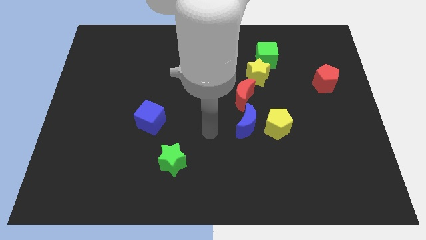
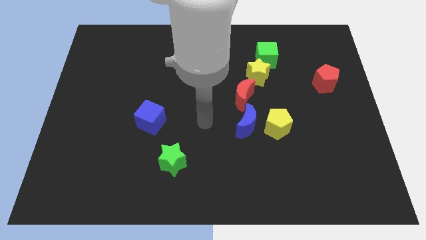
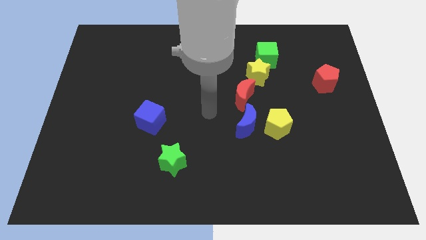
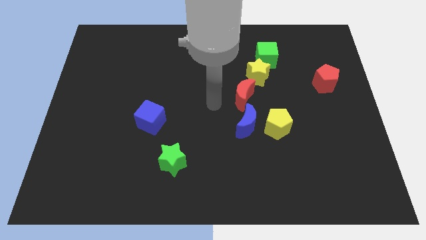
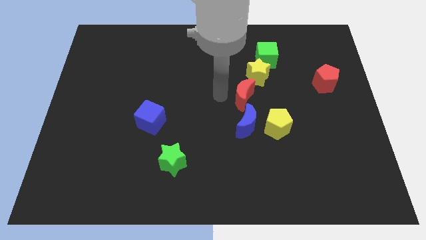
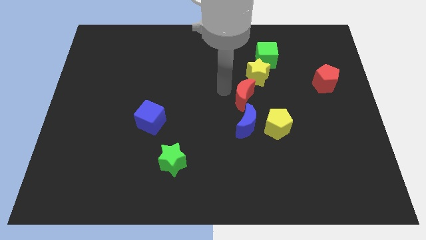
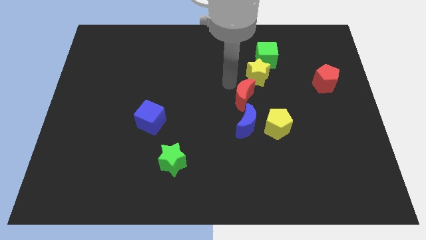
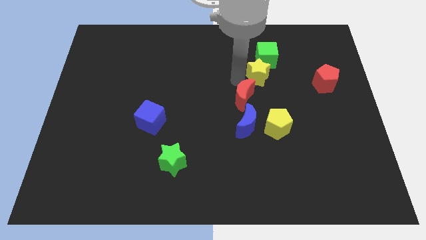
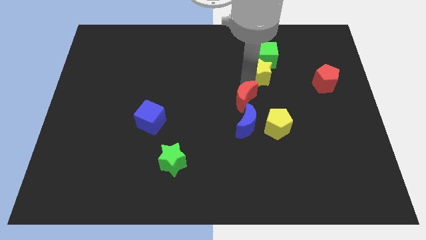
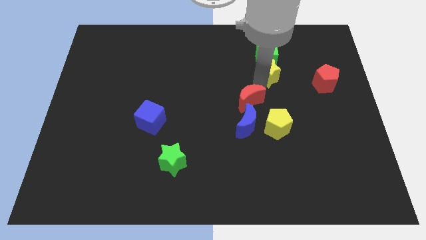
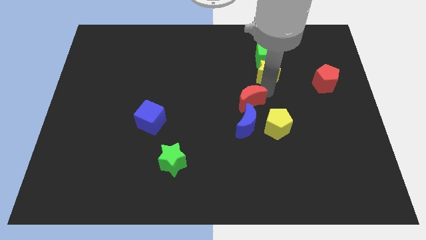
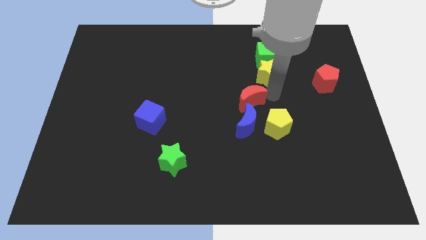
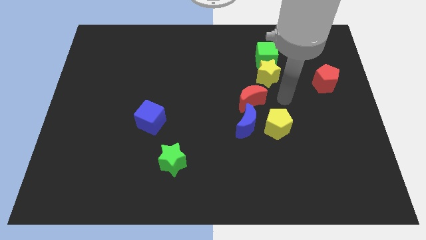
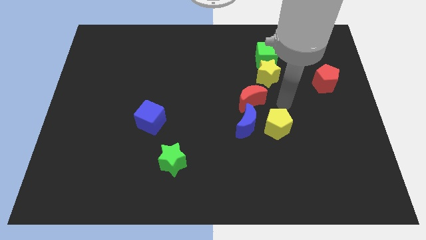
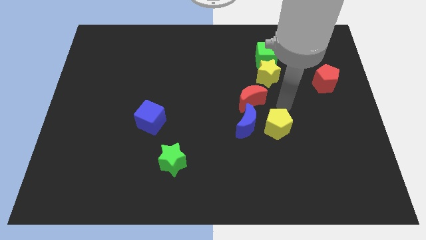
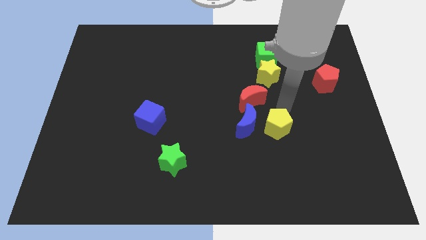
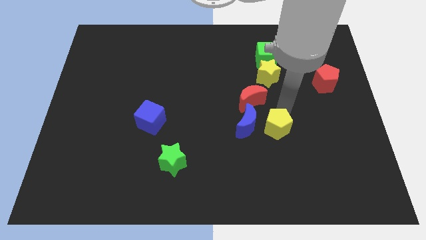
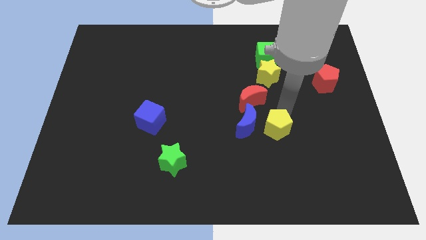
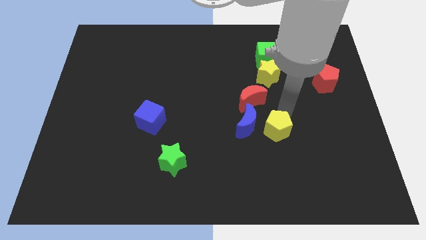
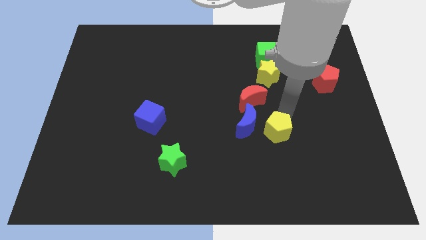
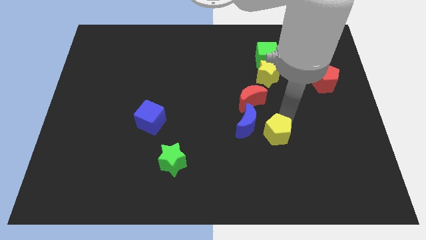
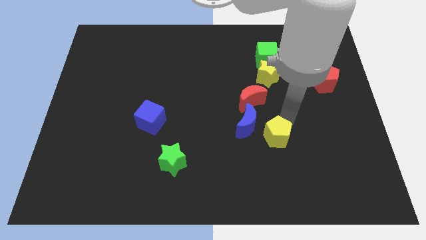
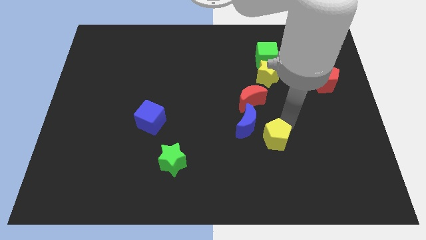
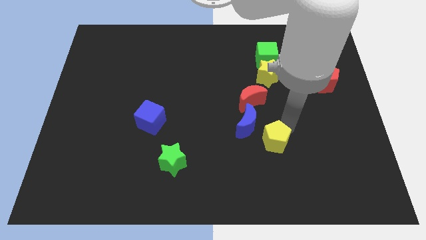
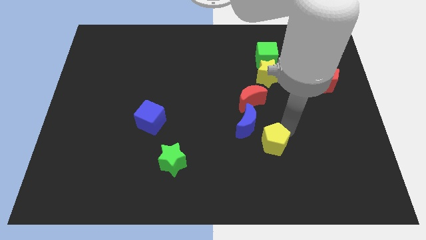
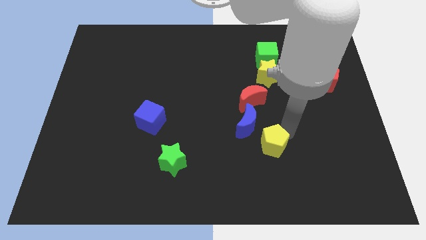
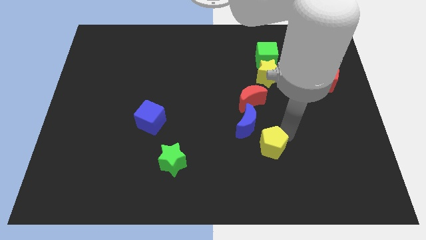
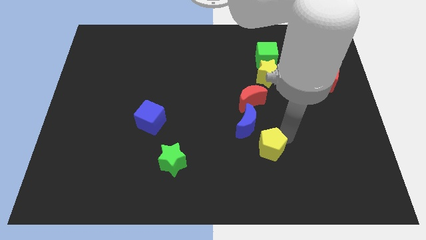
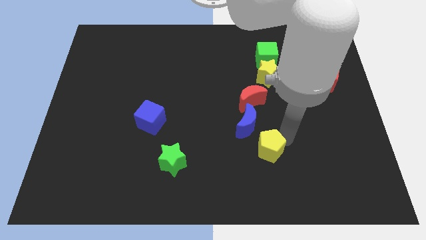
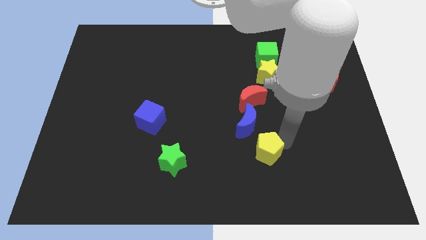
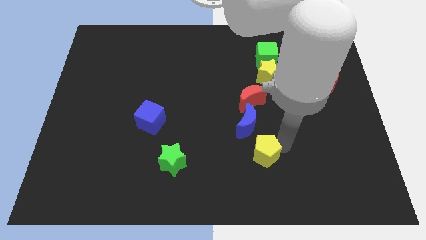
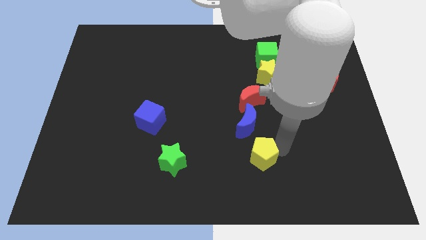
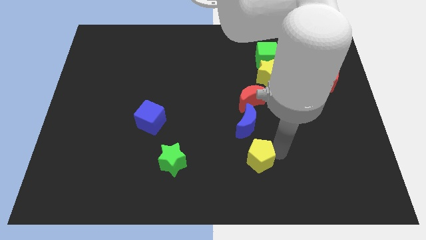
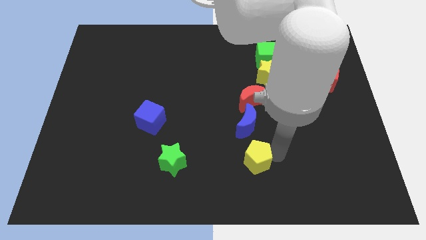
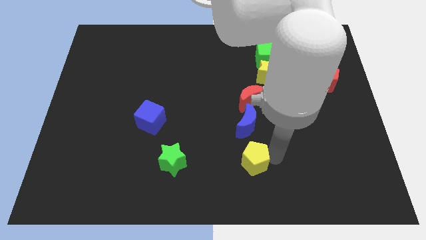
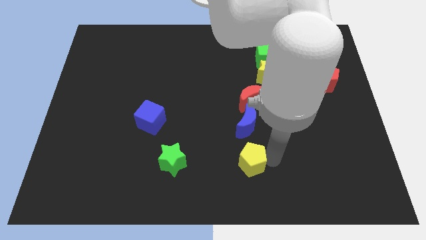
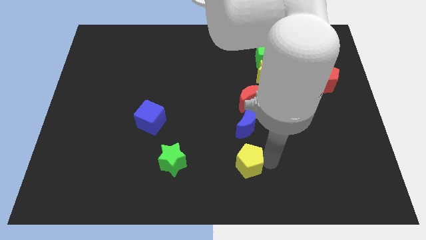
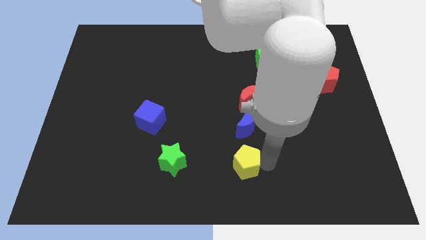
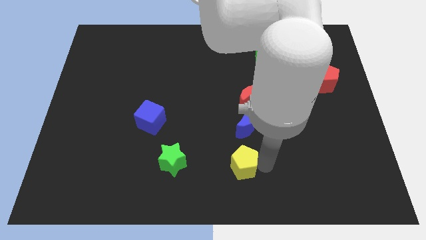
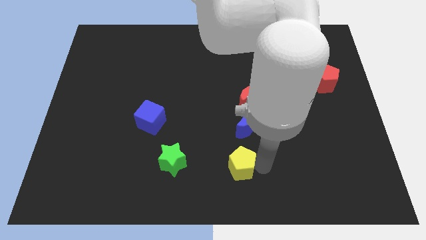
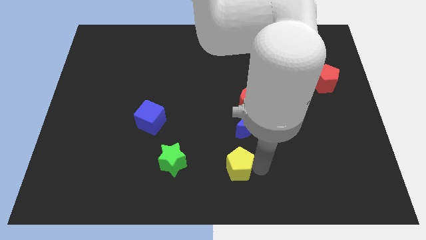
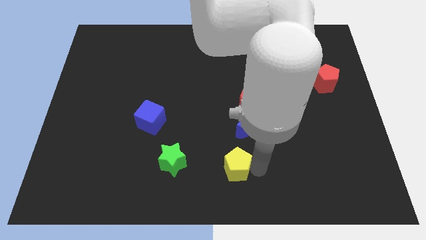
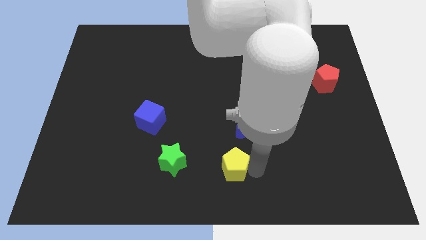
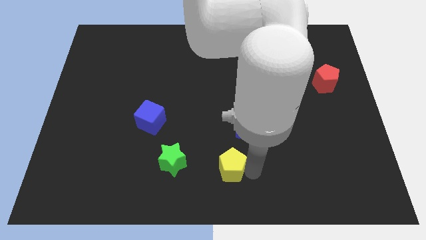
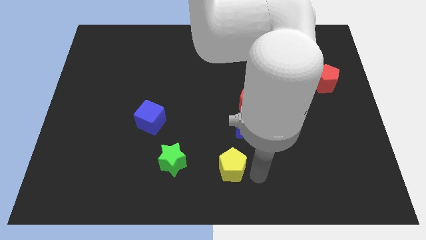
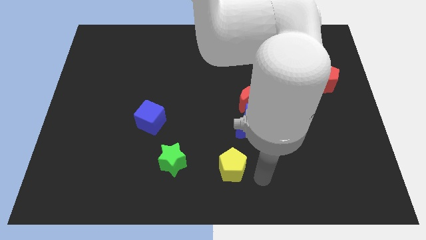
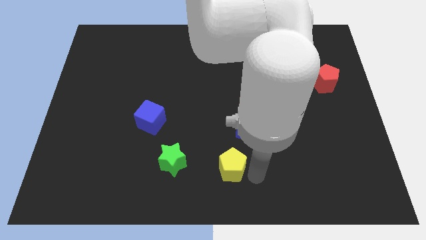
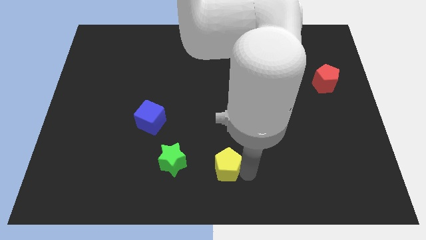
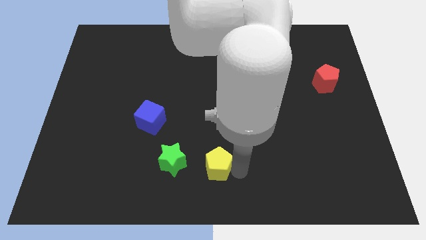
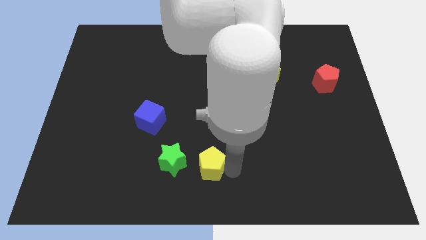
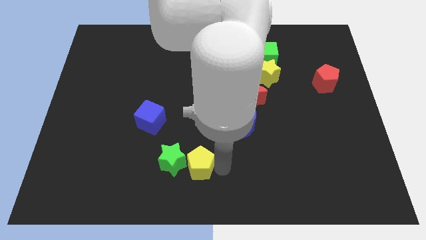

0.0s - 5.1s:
put the yellow pentagon to the green star

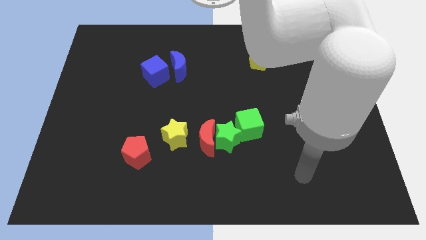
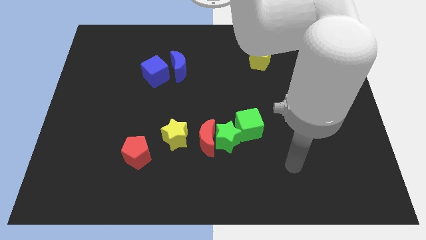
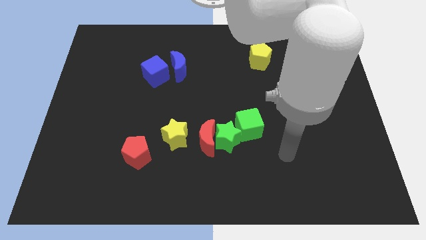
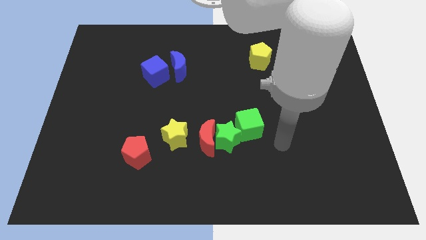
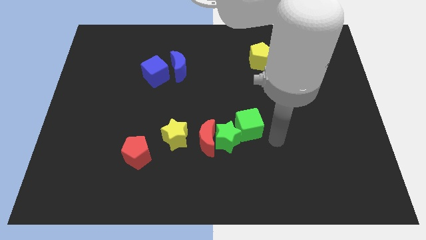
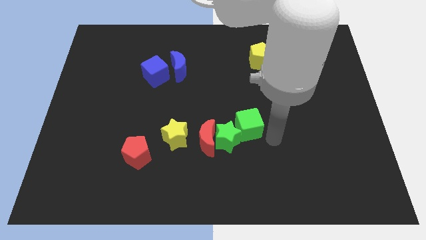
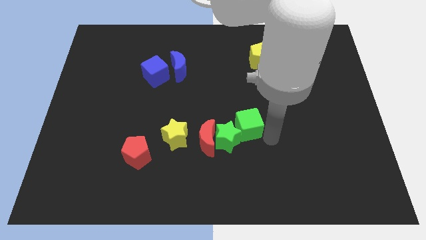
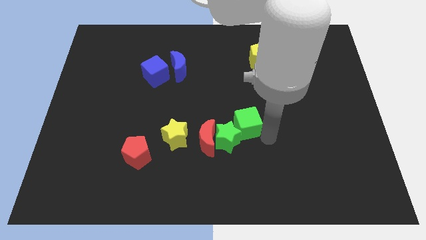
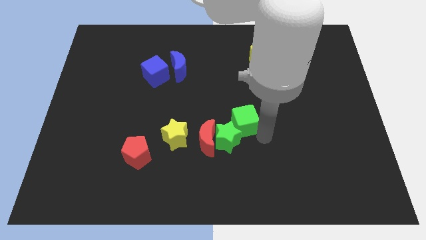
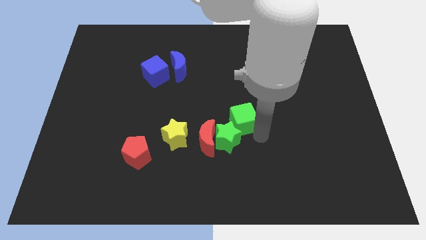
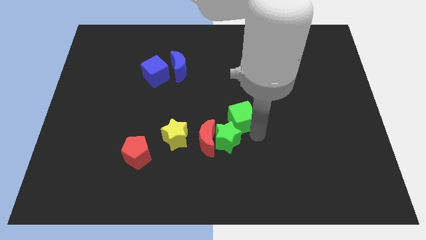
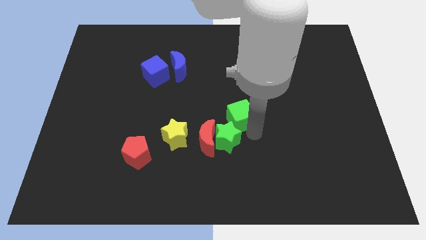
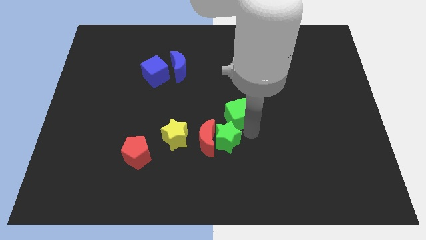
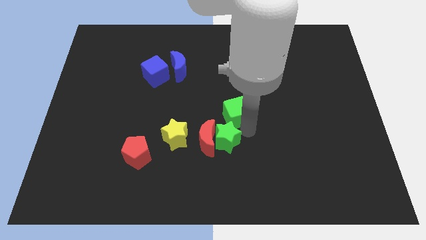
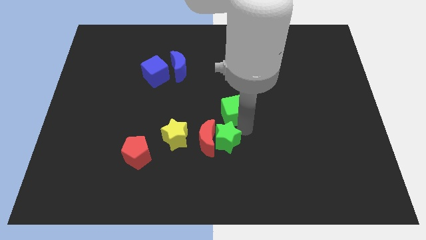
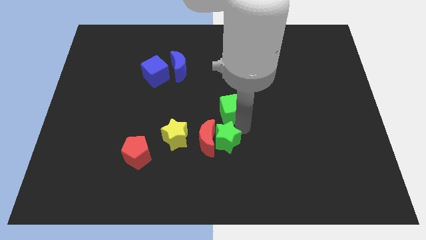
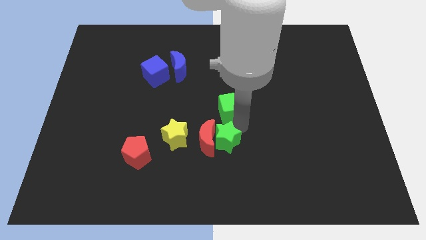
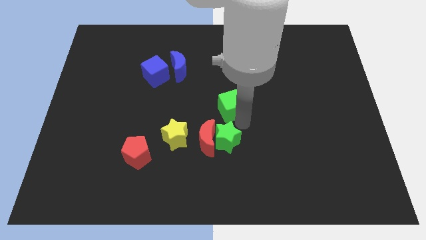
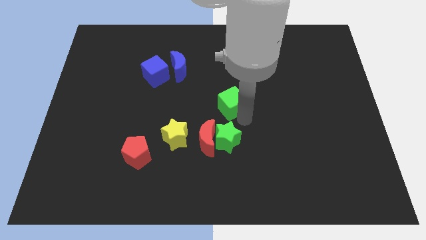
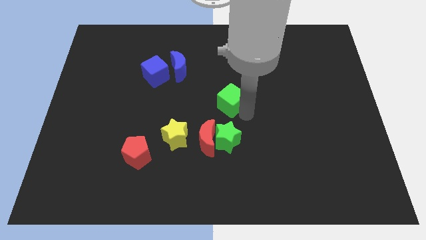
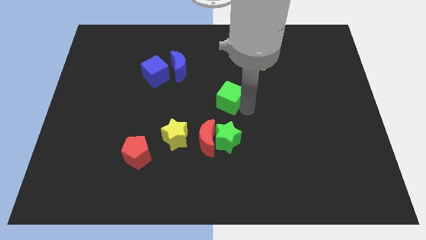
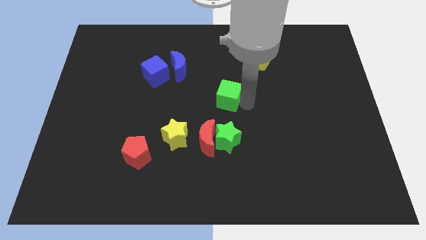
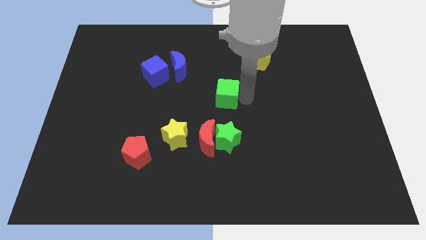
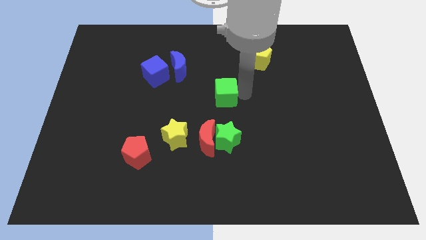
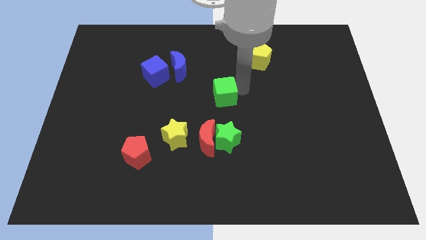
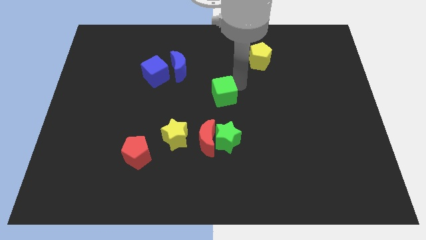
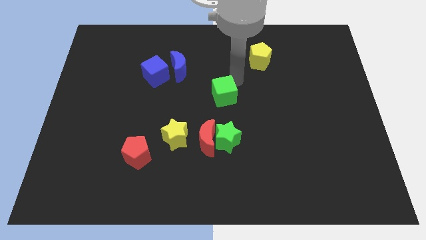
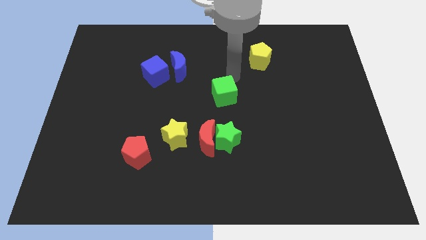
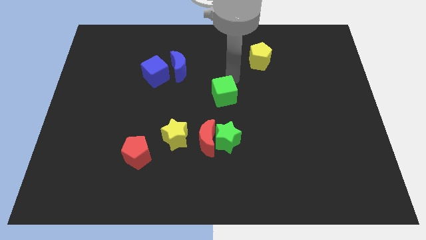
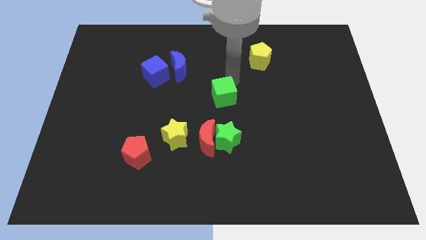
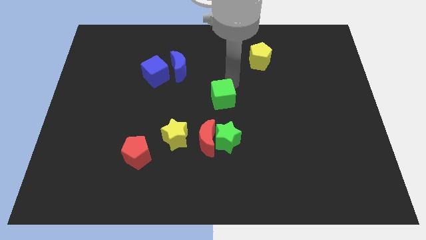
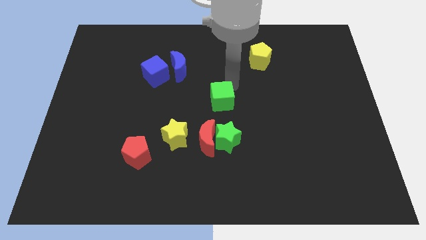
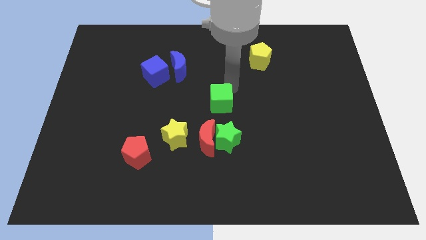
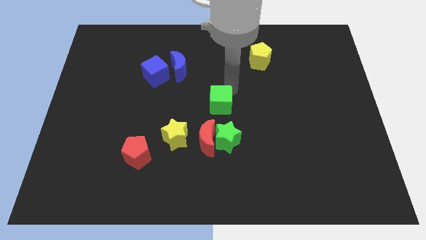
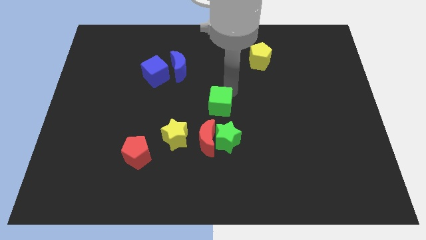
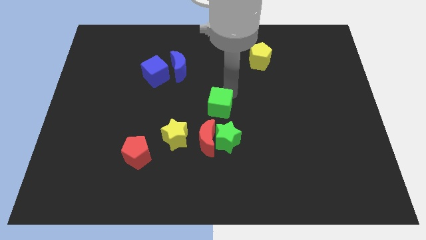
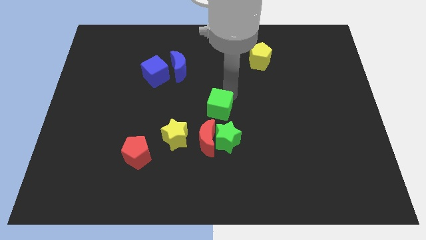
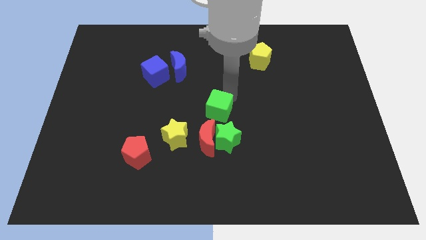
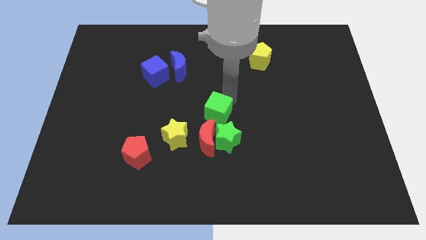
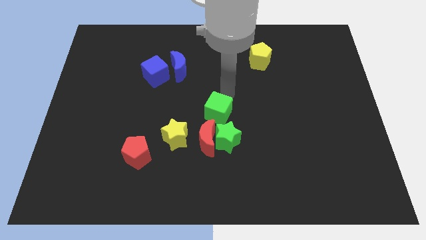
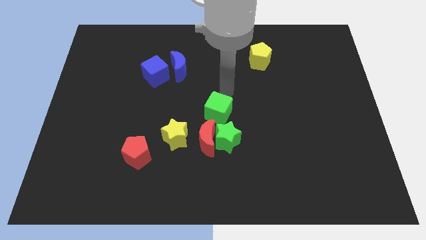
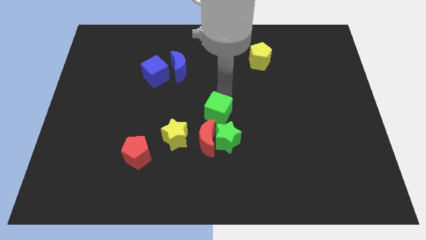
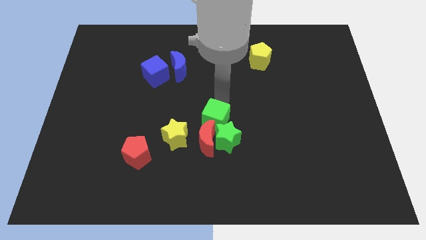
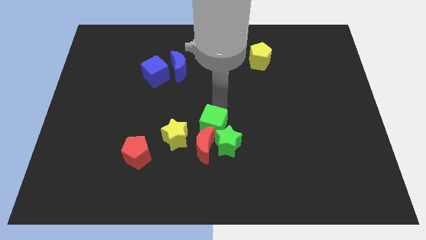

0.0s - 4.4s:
put the green cube next to the red moon
